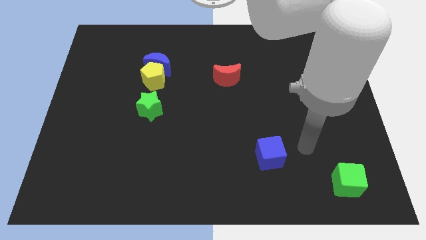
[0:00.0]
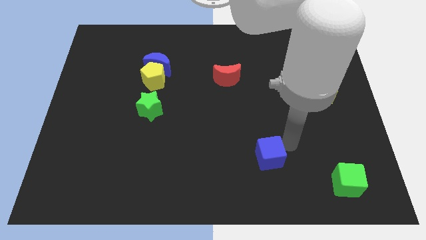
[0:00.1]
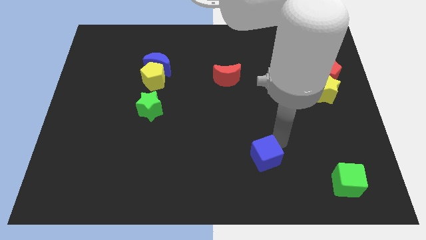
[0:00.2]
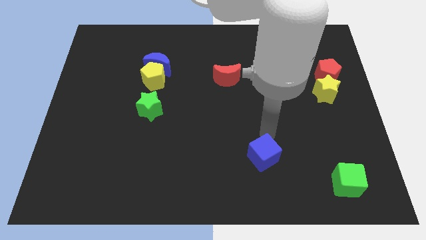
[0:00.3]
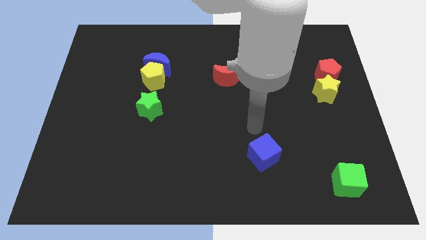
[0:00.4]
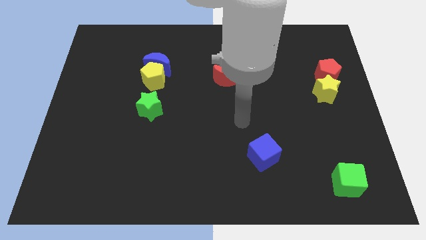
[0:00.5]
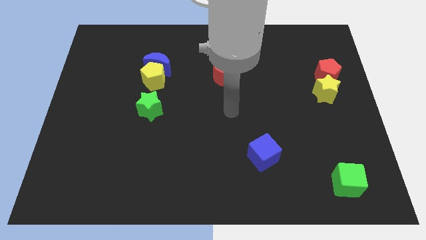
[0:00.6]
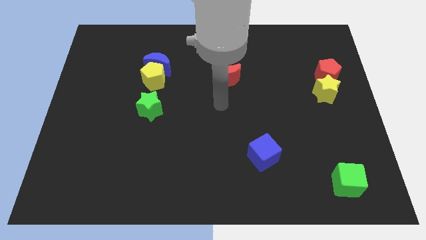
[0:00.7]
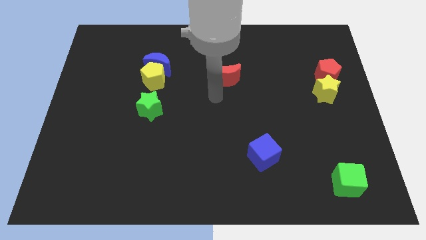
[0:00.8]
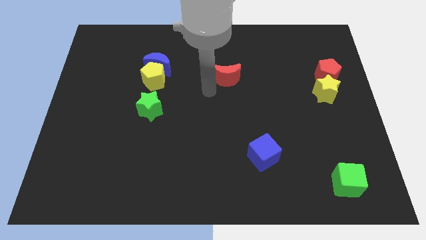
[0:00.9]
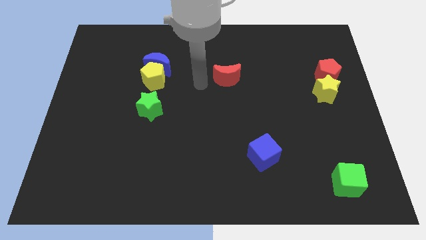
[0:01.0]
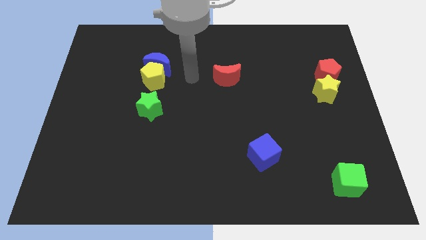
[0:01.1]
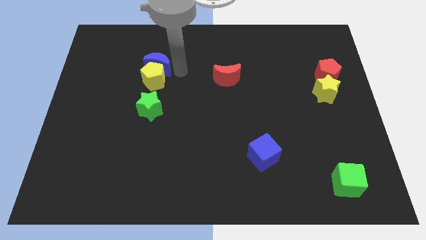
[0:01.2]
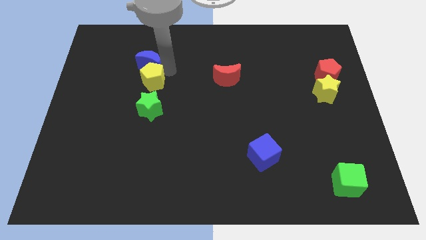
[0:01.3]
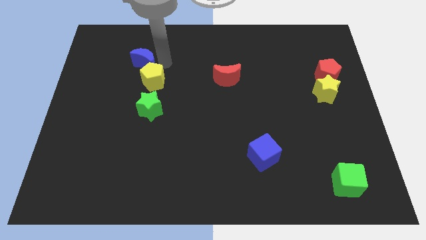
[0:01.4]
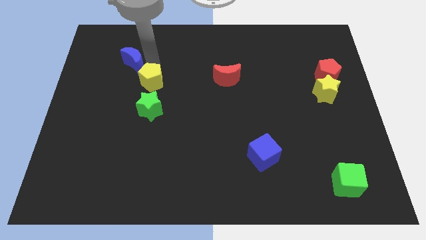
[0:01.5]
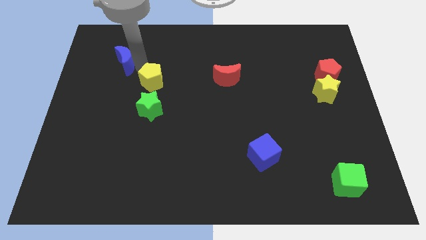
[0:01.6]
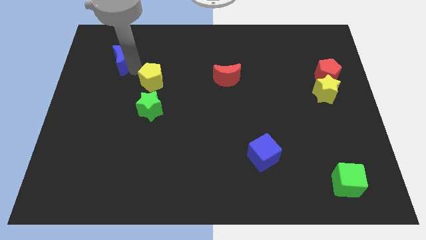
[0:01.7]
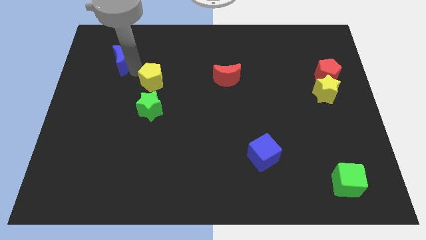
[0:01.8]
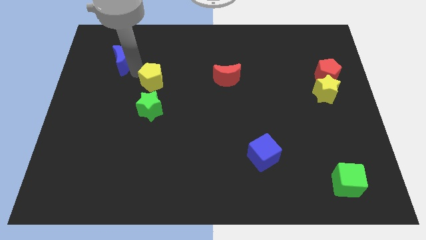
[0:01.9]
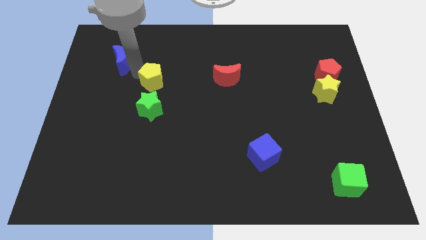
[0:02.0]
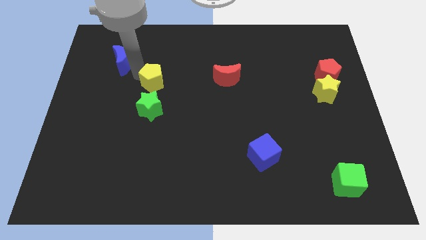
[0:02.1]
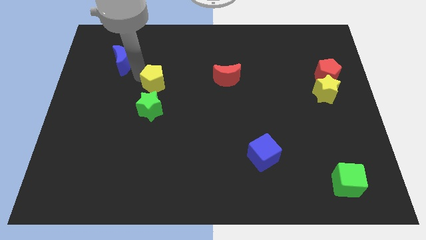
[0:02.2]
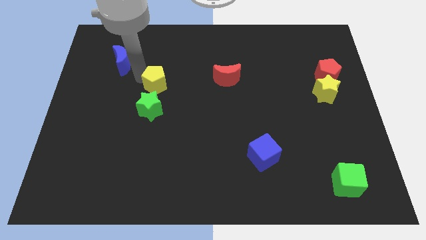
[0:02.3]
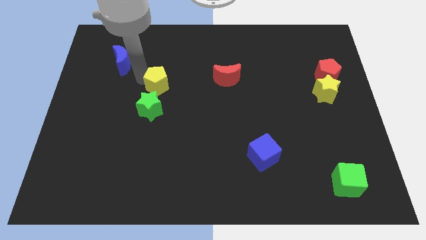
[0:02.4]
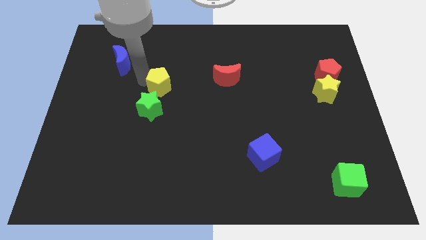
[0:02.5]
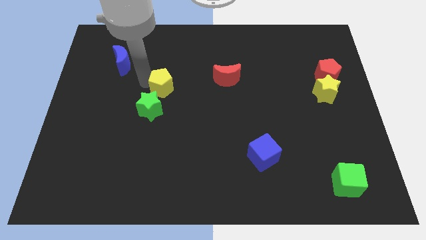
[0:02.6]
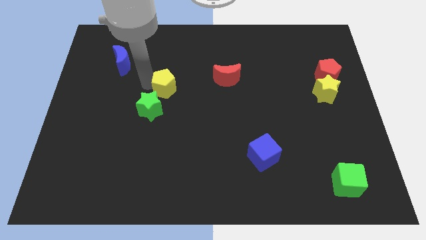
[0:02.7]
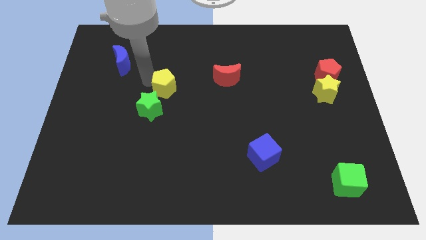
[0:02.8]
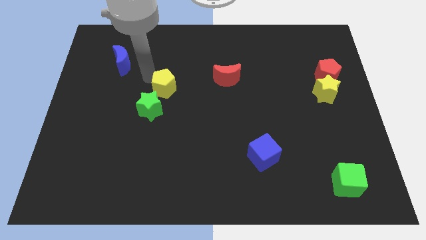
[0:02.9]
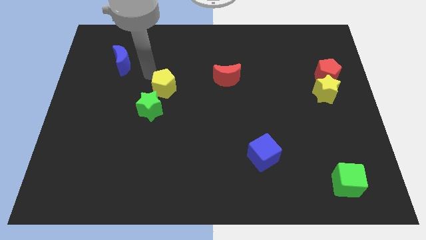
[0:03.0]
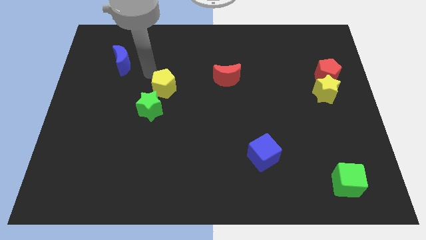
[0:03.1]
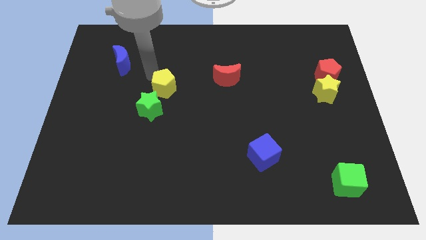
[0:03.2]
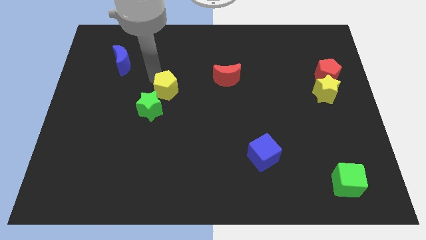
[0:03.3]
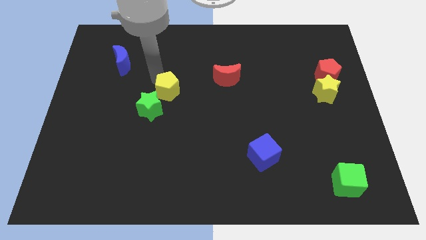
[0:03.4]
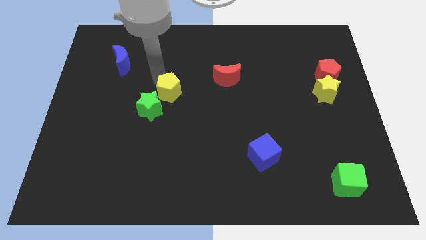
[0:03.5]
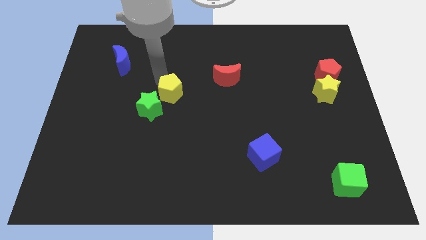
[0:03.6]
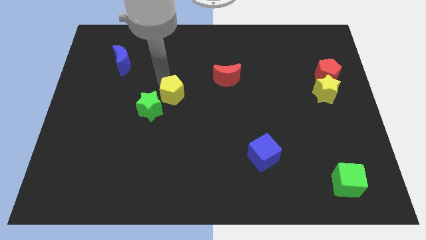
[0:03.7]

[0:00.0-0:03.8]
slightly push the yellow pentagon diagonally downwards and to the right

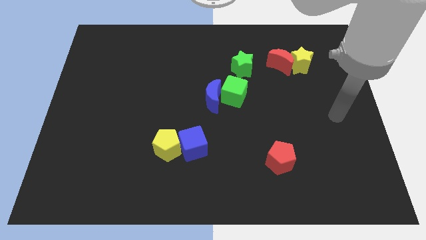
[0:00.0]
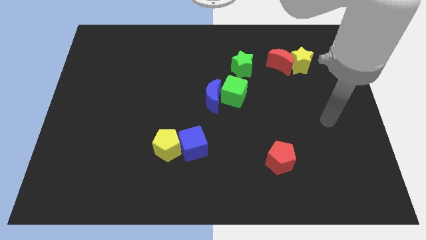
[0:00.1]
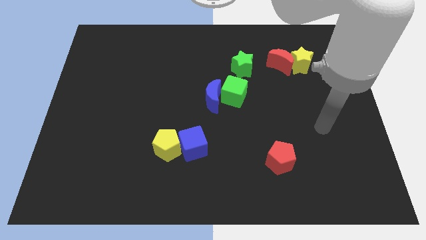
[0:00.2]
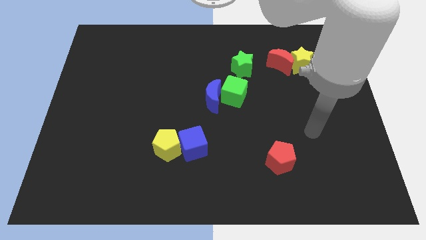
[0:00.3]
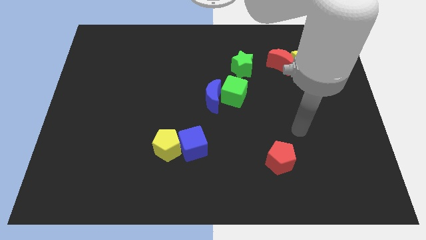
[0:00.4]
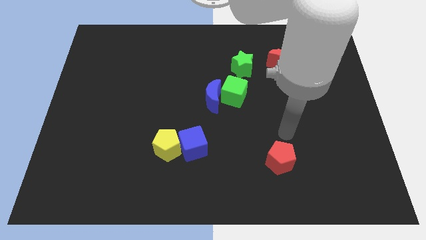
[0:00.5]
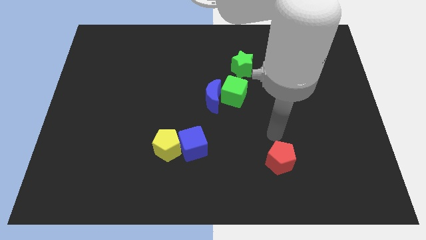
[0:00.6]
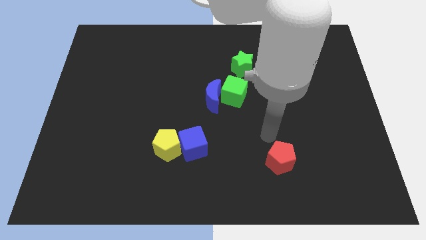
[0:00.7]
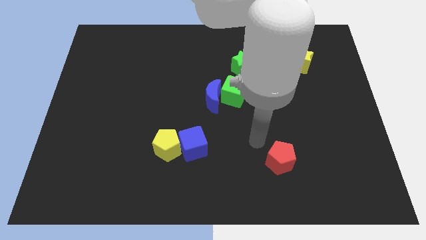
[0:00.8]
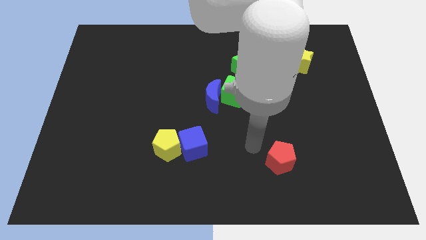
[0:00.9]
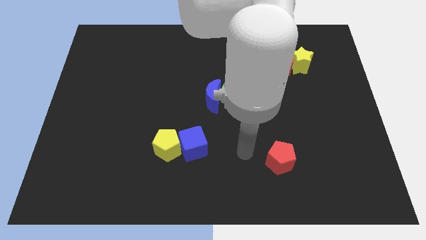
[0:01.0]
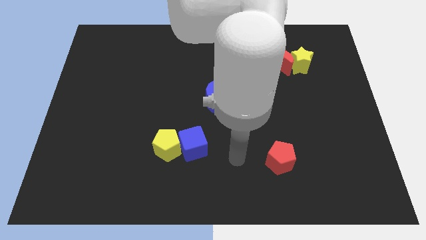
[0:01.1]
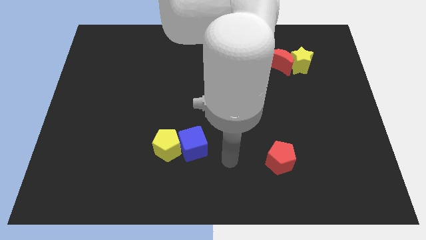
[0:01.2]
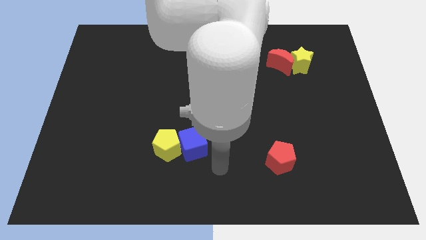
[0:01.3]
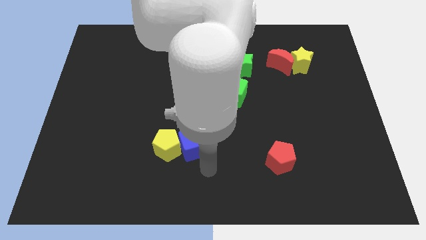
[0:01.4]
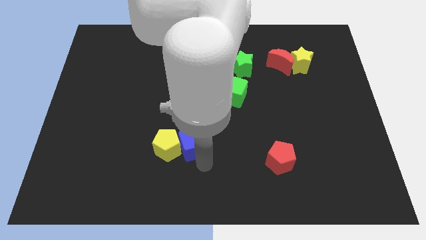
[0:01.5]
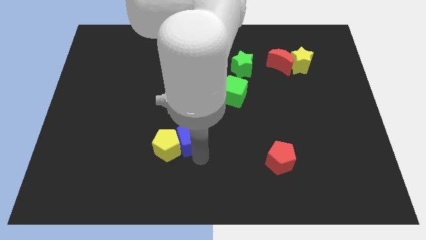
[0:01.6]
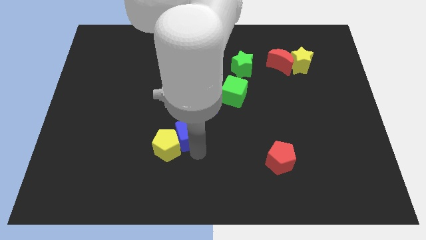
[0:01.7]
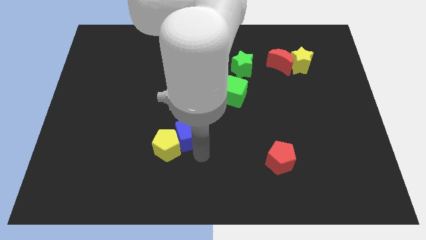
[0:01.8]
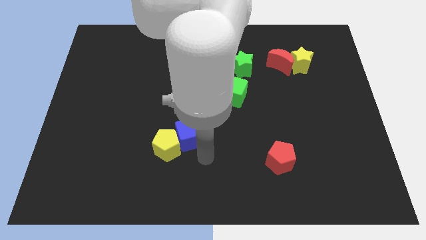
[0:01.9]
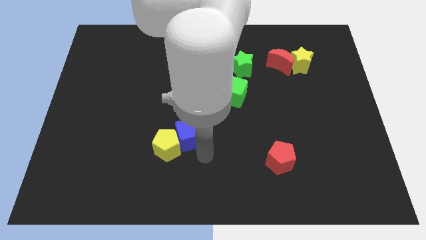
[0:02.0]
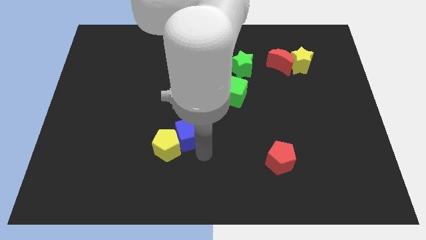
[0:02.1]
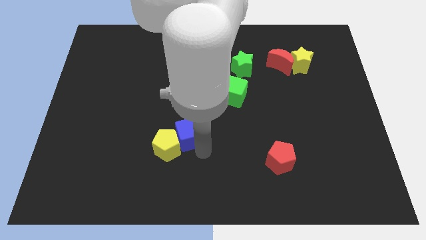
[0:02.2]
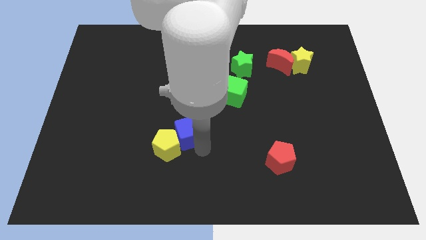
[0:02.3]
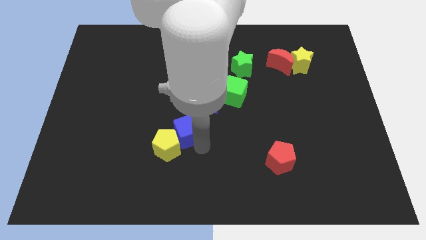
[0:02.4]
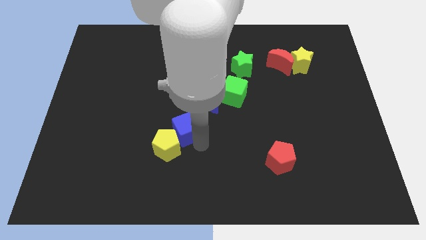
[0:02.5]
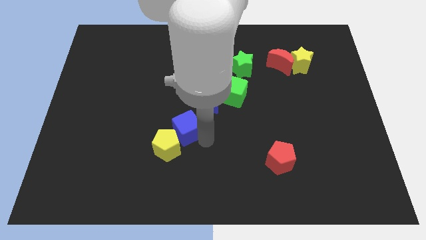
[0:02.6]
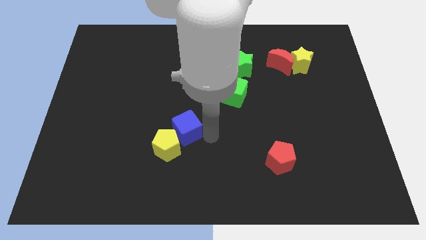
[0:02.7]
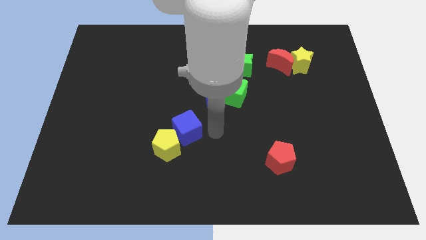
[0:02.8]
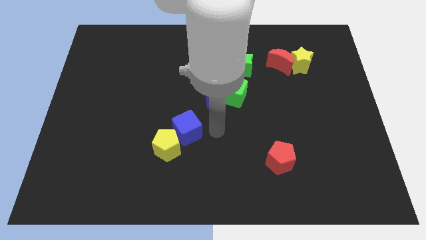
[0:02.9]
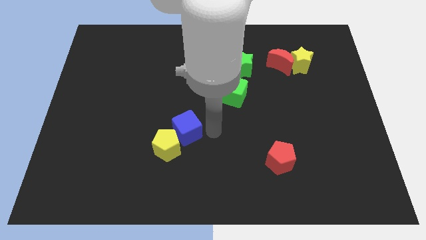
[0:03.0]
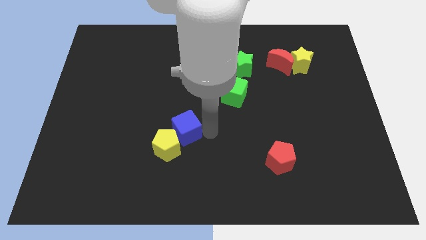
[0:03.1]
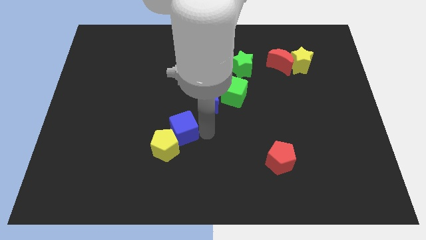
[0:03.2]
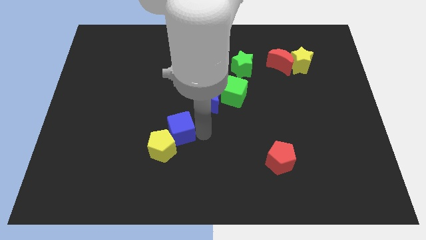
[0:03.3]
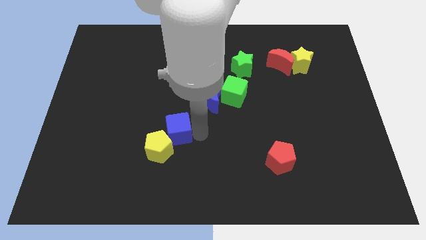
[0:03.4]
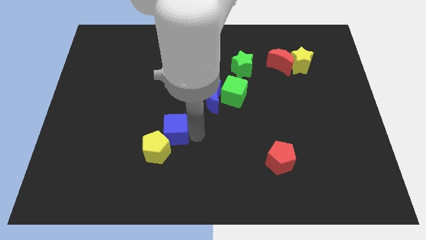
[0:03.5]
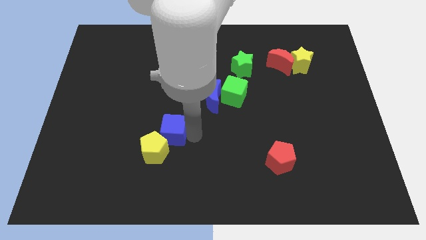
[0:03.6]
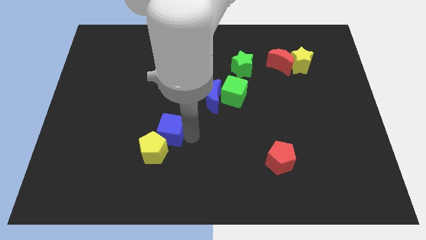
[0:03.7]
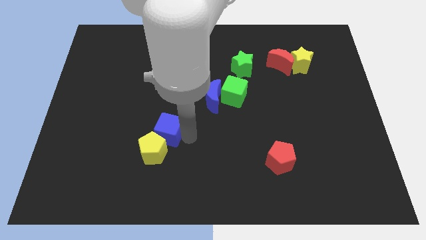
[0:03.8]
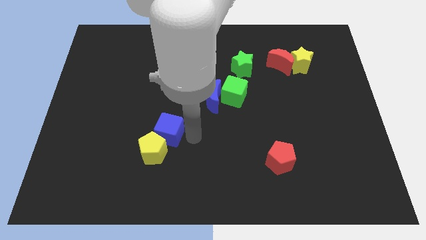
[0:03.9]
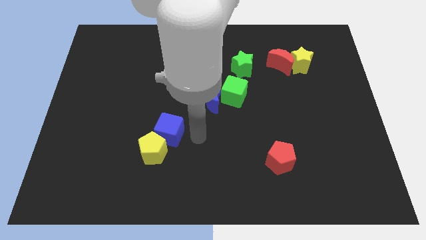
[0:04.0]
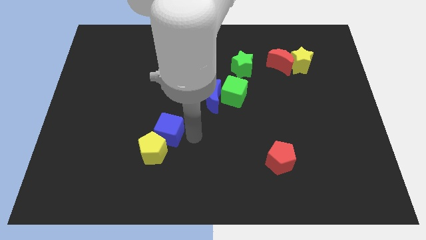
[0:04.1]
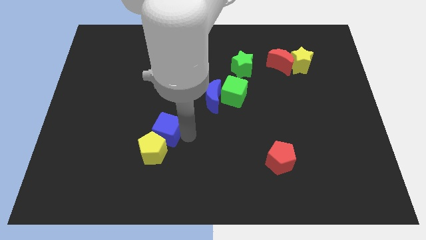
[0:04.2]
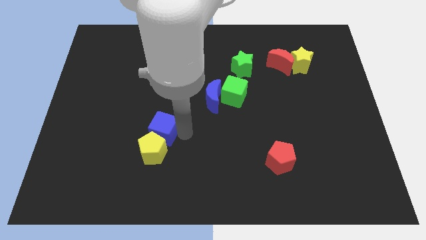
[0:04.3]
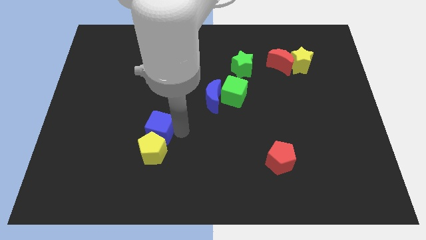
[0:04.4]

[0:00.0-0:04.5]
move the blue cube to the left somewhat
